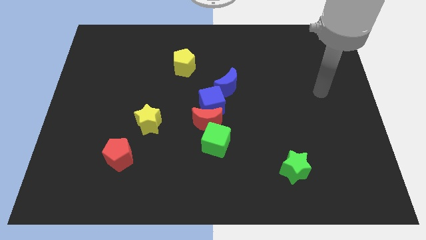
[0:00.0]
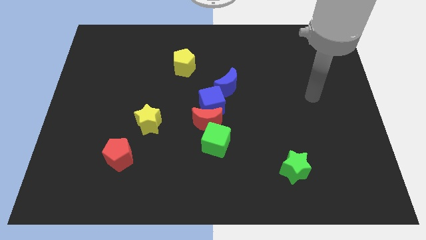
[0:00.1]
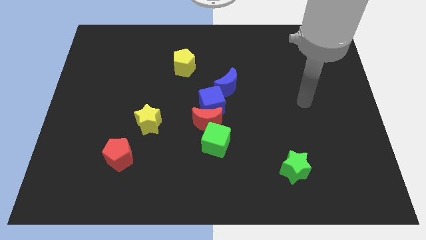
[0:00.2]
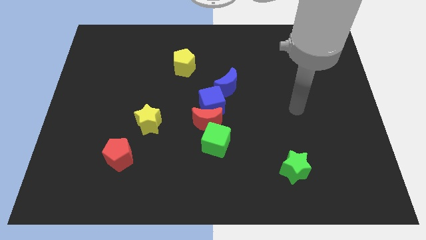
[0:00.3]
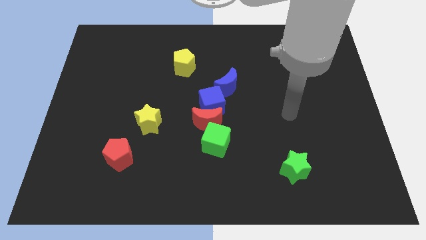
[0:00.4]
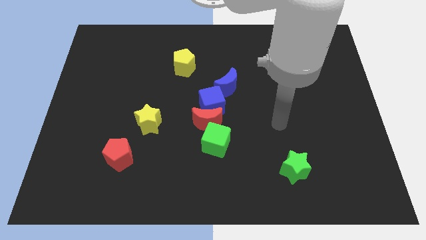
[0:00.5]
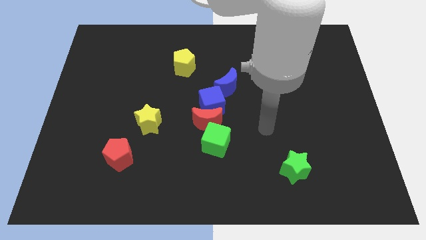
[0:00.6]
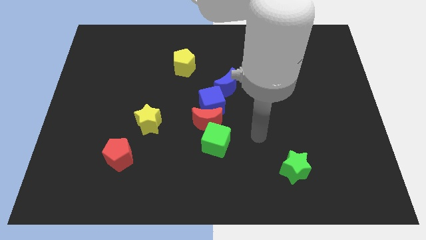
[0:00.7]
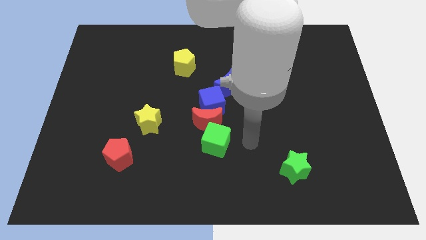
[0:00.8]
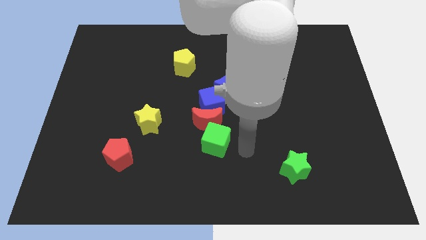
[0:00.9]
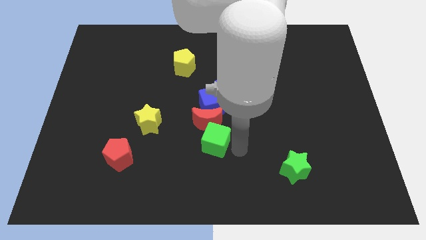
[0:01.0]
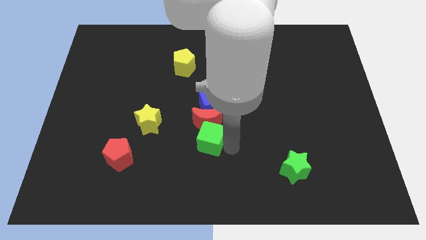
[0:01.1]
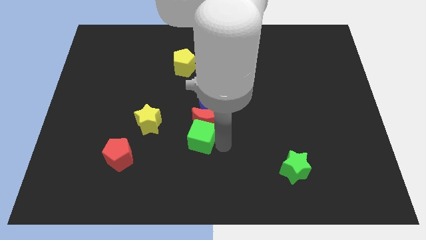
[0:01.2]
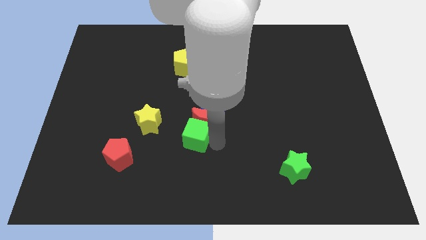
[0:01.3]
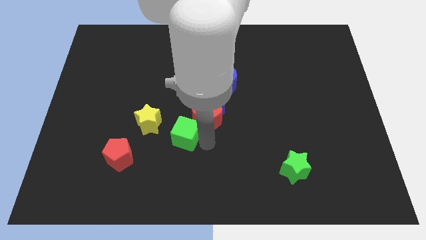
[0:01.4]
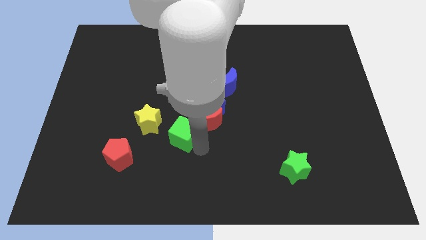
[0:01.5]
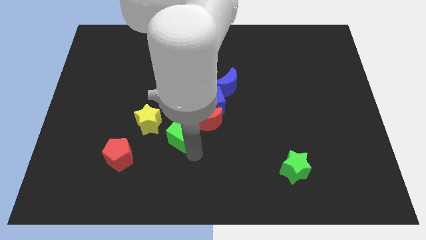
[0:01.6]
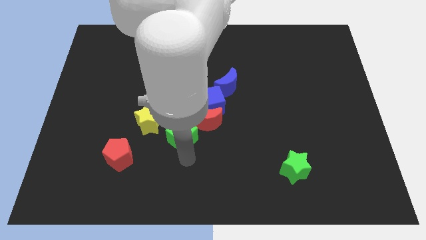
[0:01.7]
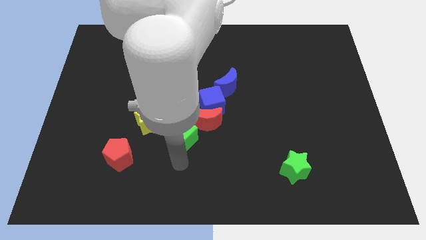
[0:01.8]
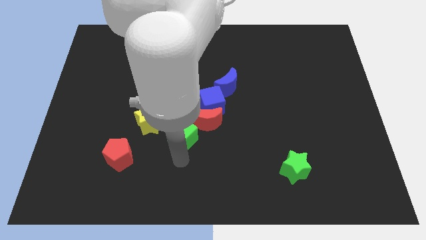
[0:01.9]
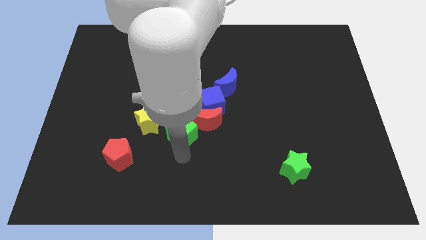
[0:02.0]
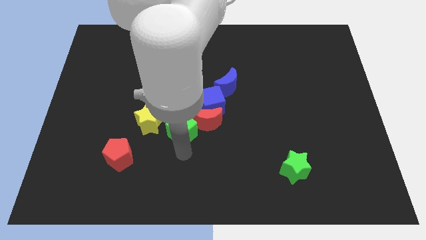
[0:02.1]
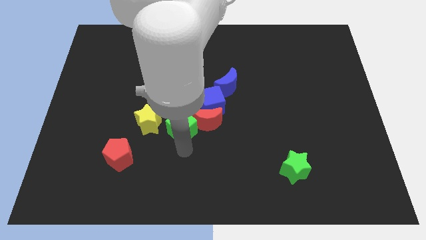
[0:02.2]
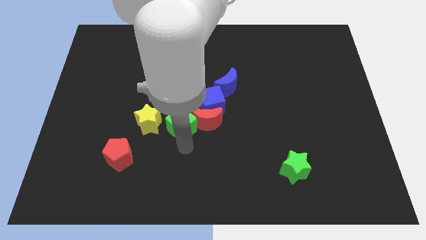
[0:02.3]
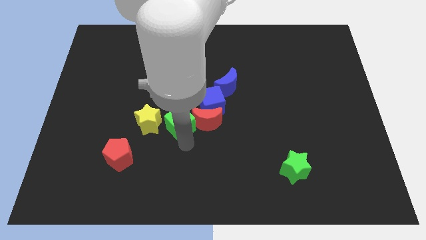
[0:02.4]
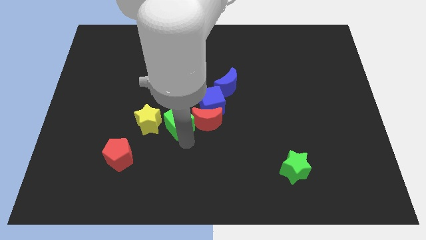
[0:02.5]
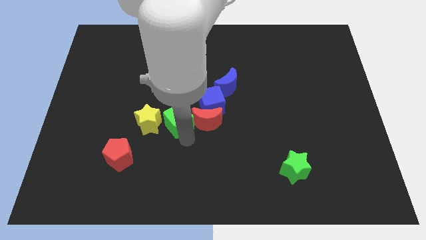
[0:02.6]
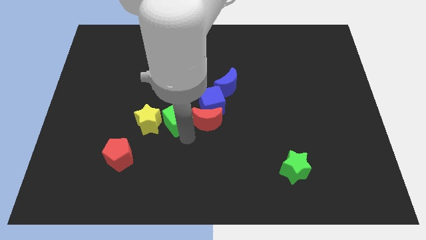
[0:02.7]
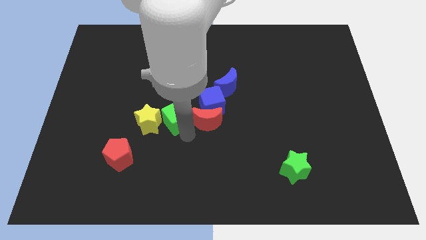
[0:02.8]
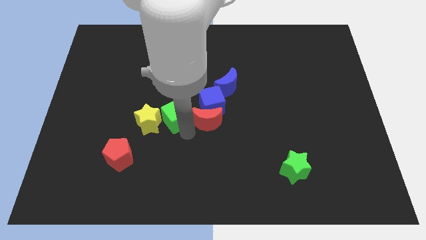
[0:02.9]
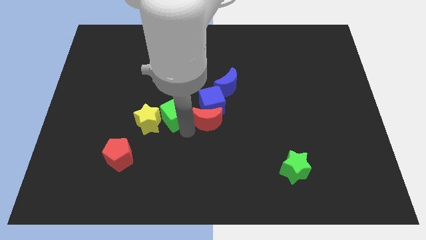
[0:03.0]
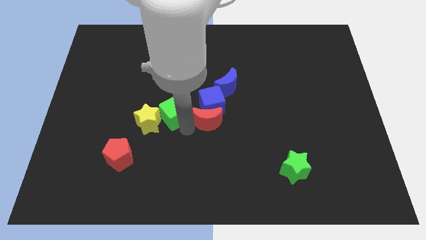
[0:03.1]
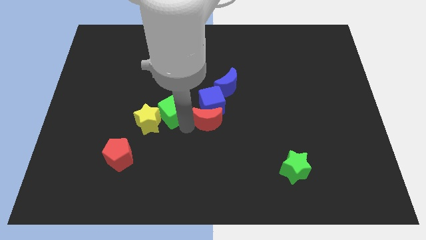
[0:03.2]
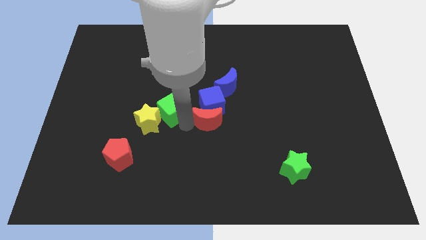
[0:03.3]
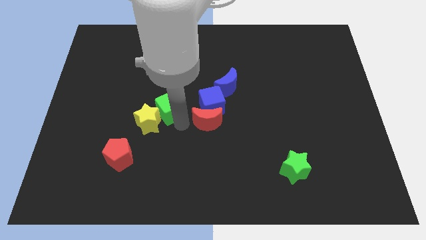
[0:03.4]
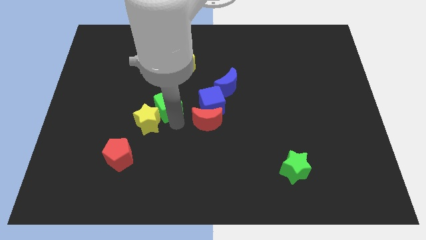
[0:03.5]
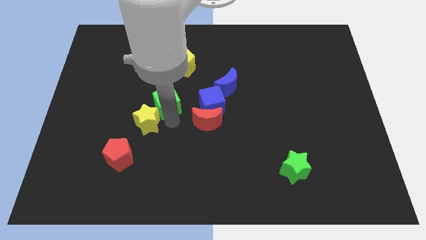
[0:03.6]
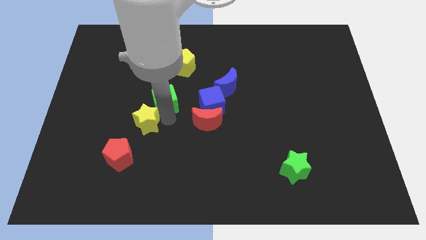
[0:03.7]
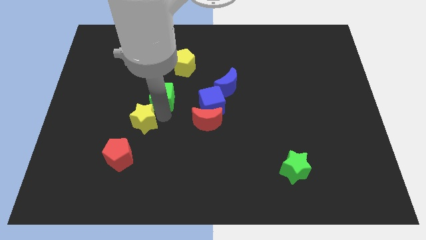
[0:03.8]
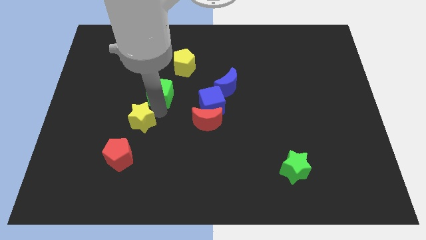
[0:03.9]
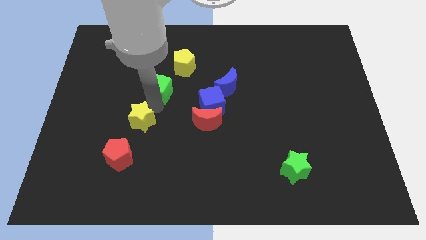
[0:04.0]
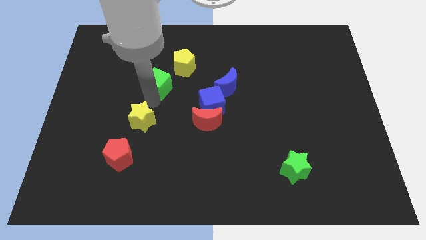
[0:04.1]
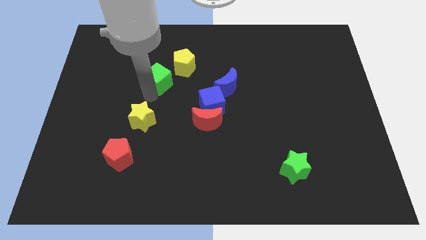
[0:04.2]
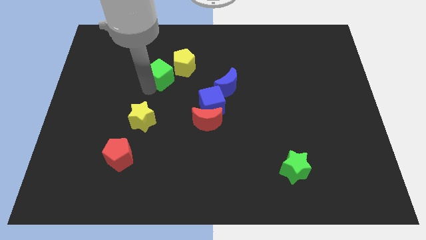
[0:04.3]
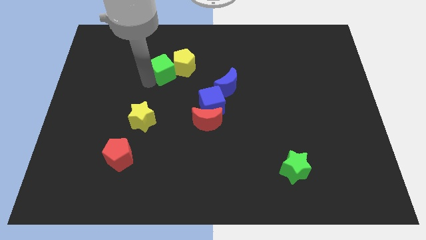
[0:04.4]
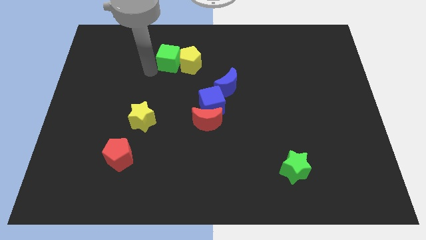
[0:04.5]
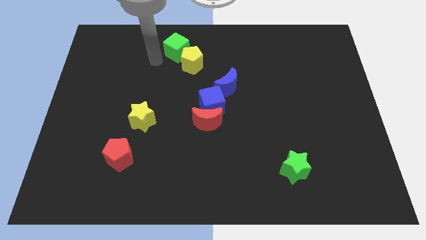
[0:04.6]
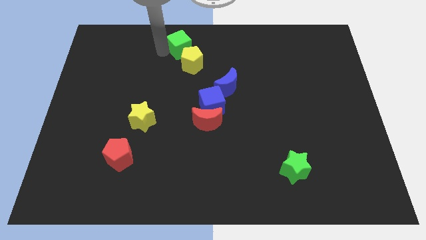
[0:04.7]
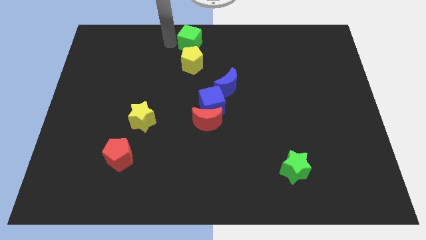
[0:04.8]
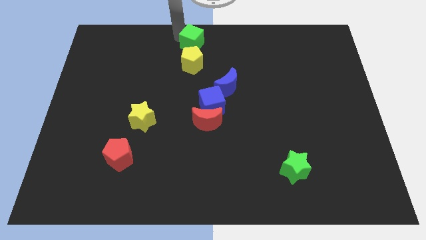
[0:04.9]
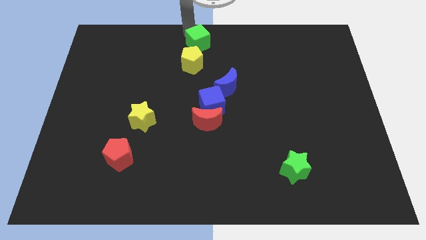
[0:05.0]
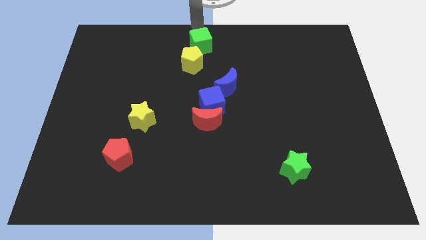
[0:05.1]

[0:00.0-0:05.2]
slightly move the green cube upwards

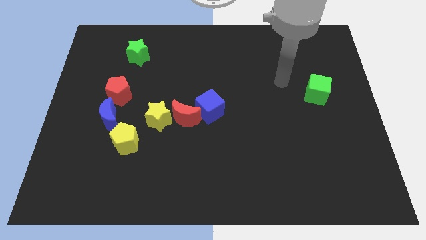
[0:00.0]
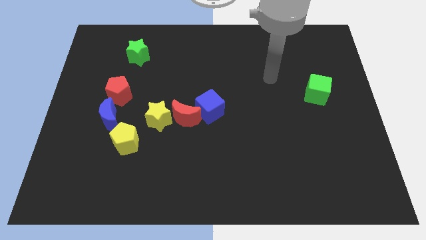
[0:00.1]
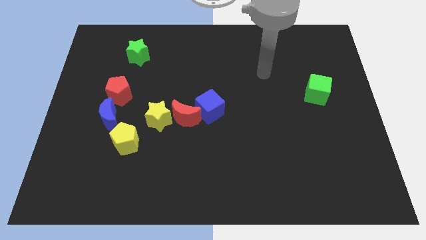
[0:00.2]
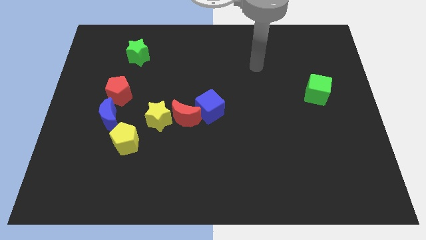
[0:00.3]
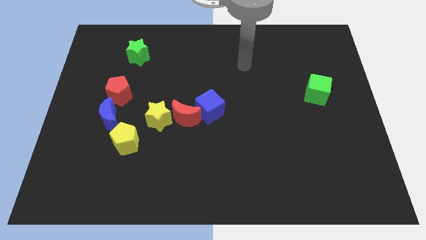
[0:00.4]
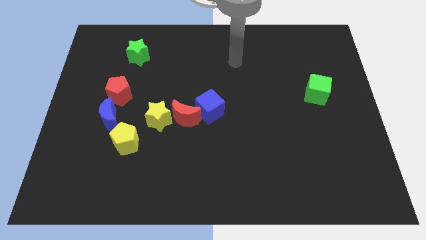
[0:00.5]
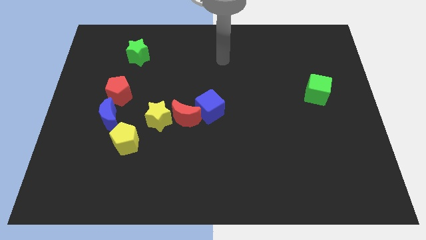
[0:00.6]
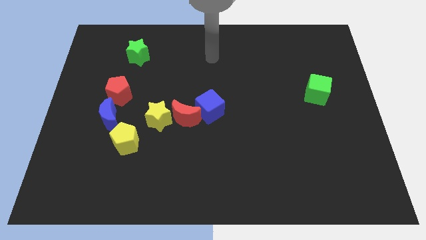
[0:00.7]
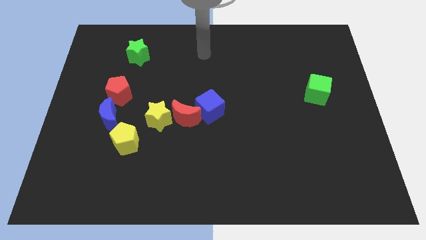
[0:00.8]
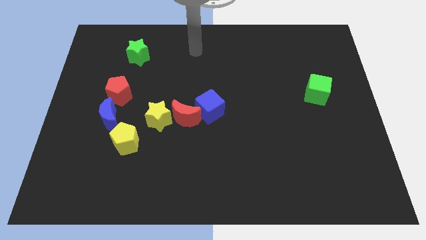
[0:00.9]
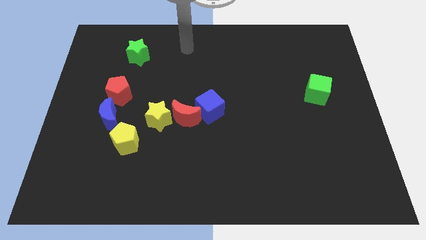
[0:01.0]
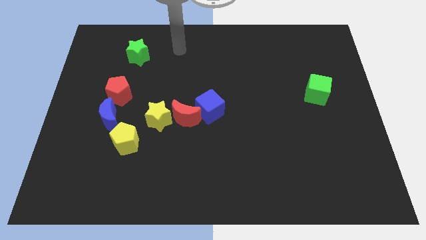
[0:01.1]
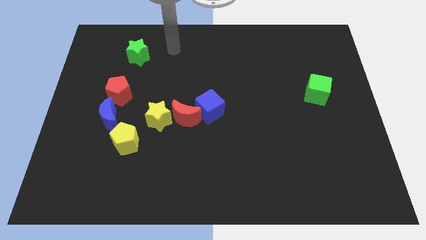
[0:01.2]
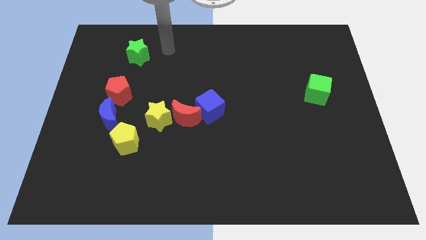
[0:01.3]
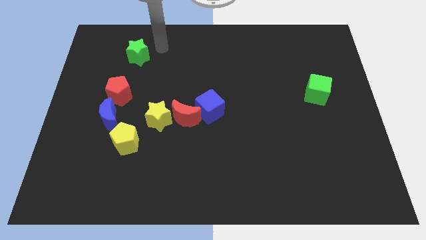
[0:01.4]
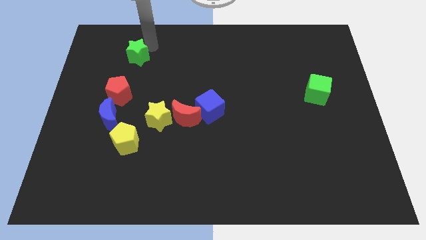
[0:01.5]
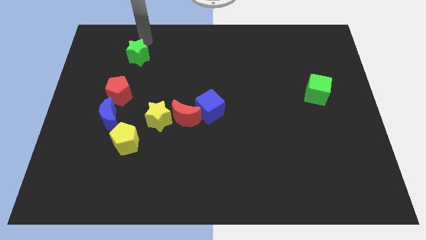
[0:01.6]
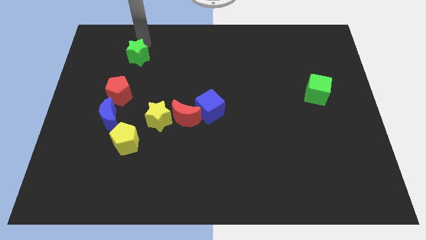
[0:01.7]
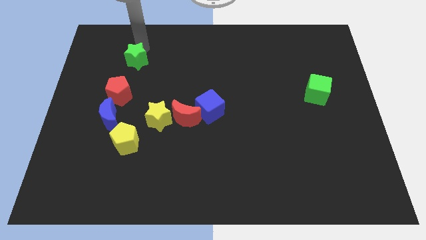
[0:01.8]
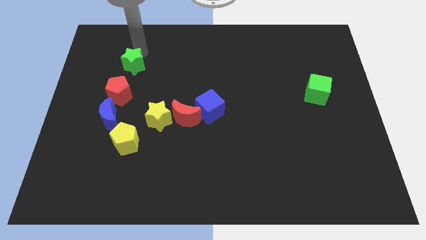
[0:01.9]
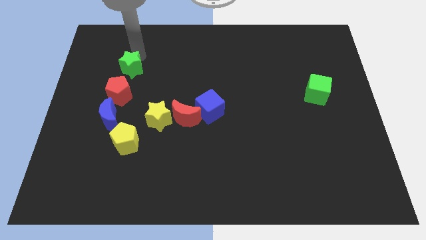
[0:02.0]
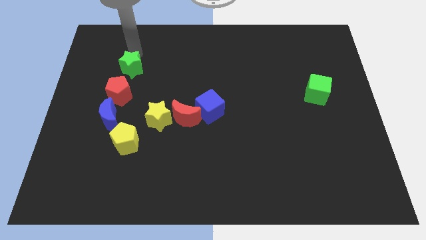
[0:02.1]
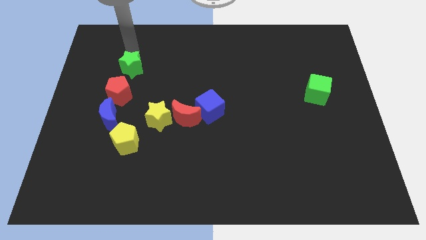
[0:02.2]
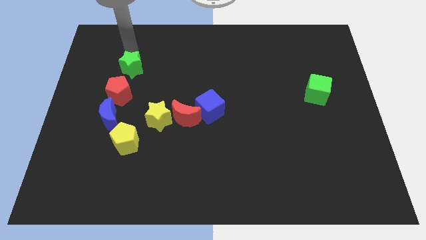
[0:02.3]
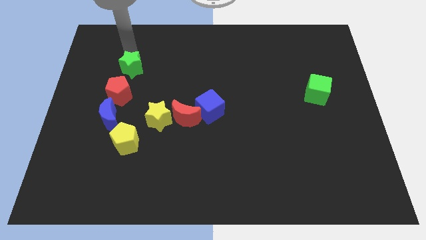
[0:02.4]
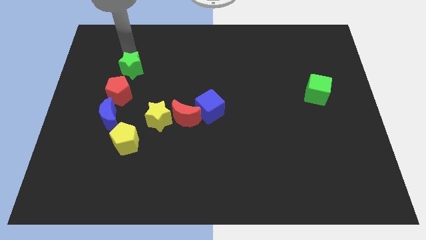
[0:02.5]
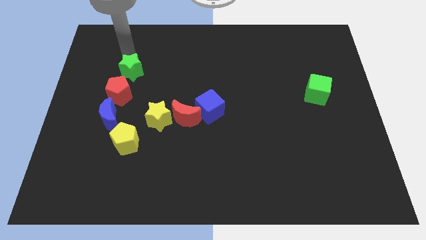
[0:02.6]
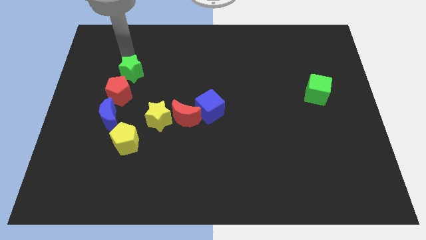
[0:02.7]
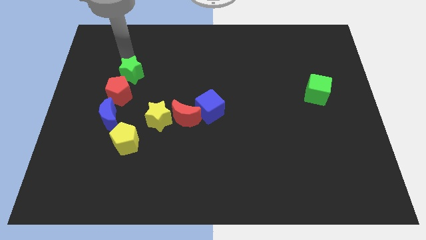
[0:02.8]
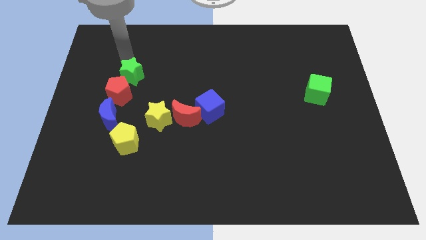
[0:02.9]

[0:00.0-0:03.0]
slide the green star down slightly
